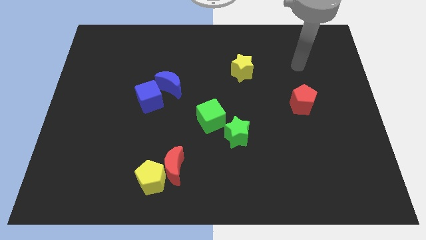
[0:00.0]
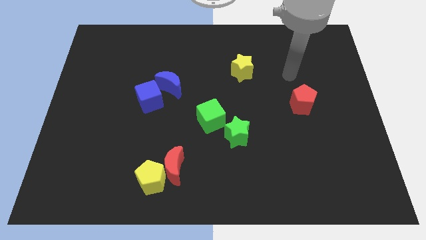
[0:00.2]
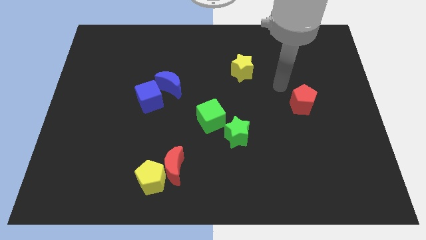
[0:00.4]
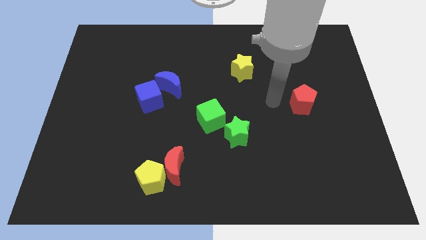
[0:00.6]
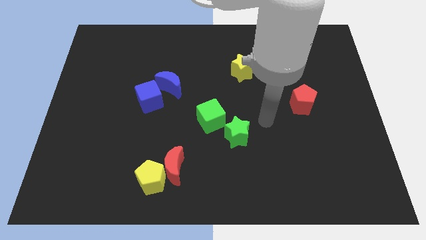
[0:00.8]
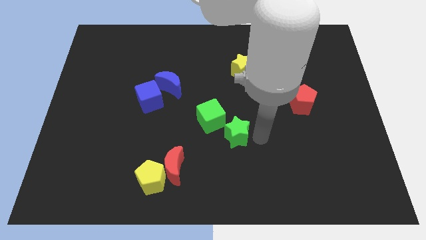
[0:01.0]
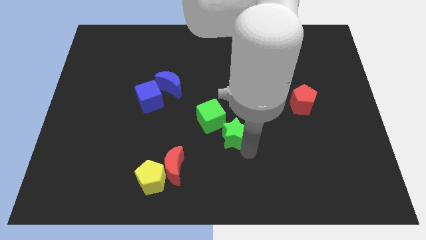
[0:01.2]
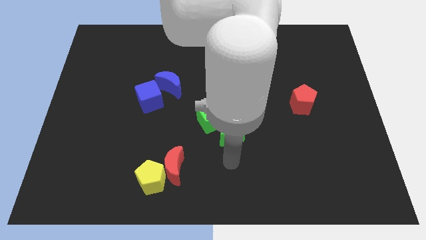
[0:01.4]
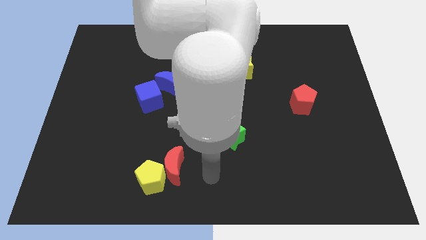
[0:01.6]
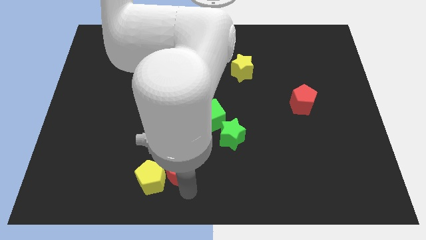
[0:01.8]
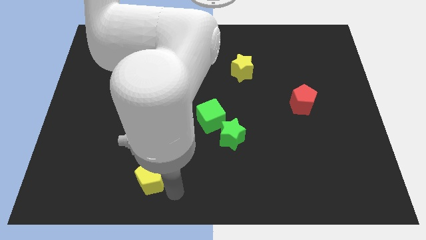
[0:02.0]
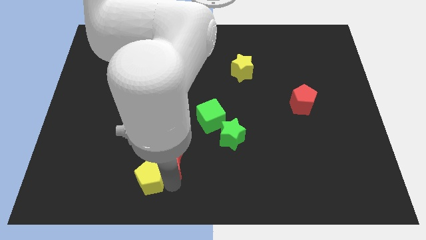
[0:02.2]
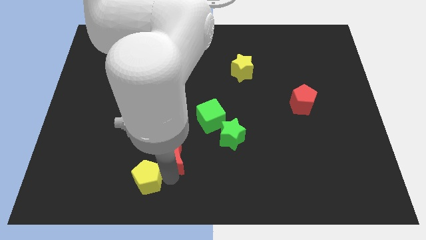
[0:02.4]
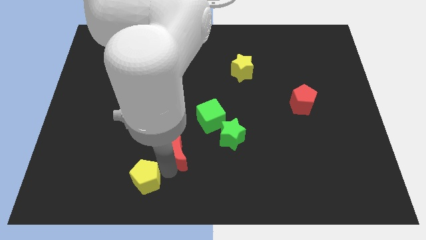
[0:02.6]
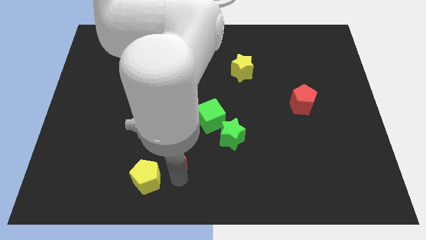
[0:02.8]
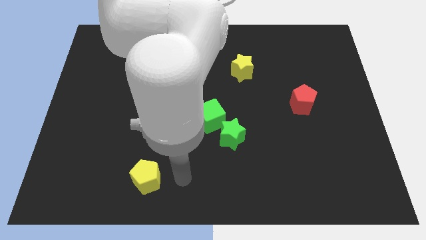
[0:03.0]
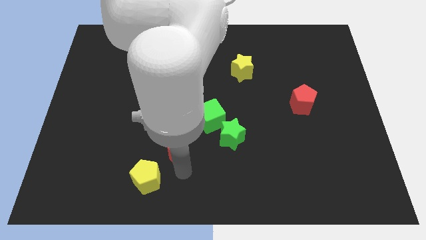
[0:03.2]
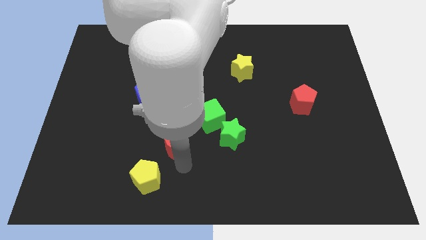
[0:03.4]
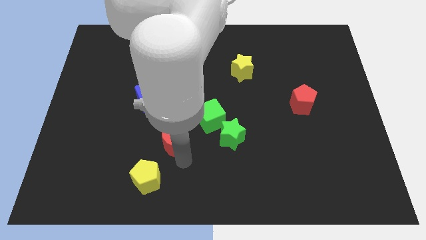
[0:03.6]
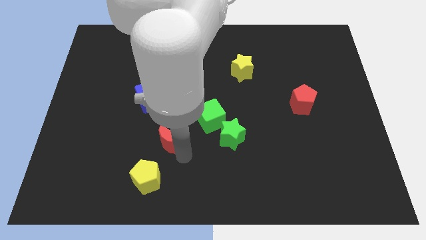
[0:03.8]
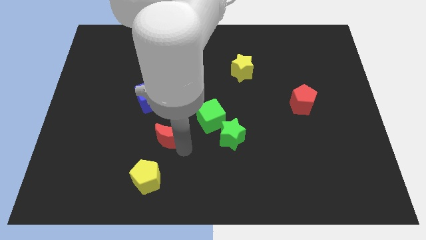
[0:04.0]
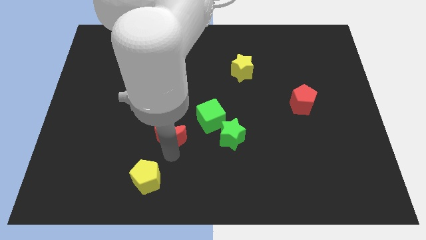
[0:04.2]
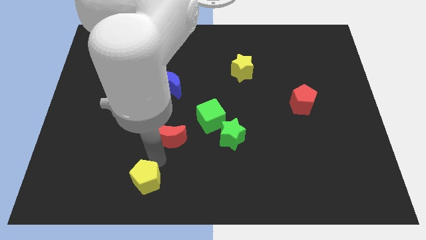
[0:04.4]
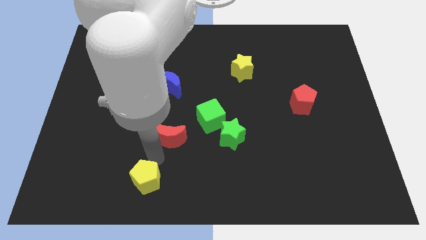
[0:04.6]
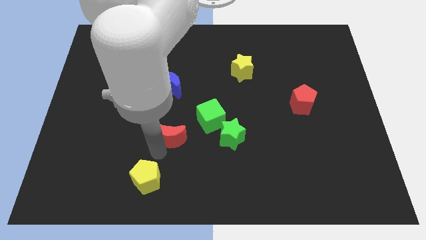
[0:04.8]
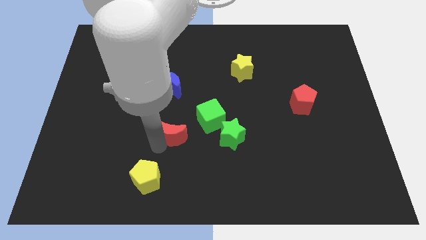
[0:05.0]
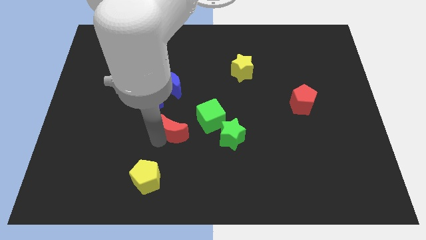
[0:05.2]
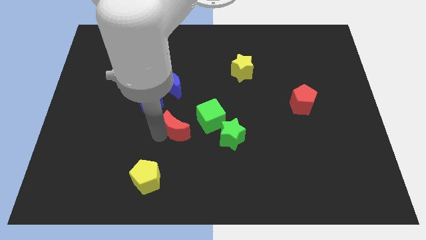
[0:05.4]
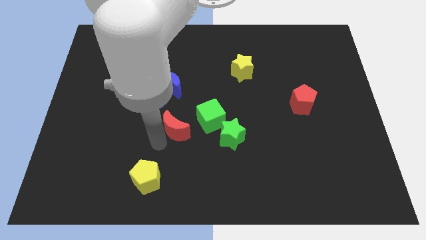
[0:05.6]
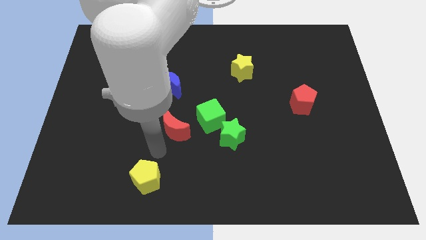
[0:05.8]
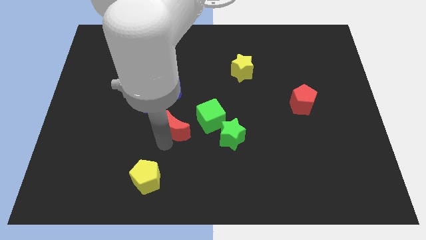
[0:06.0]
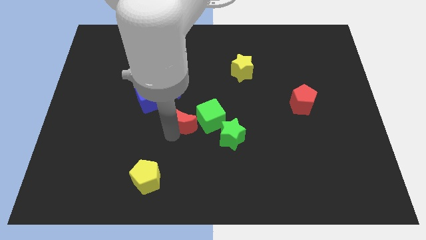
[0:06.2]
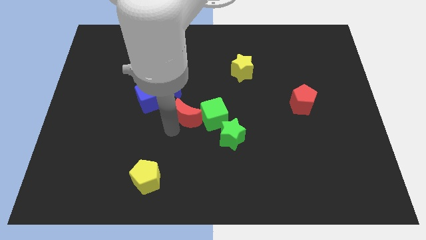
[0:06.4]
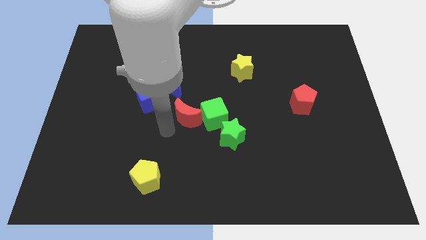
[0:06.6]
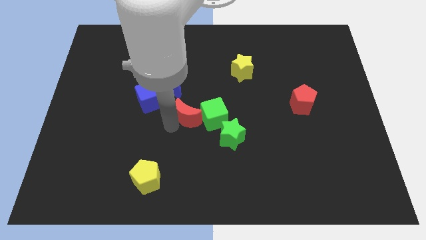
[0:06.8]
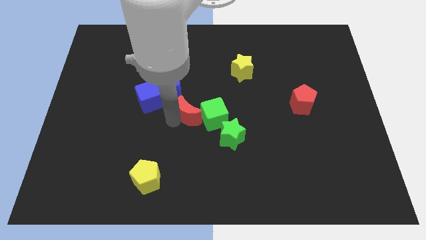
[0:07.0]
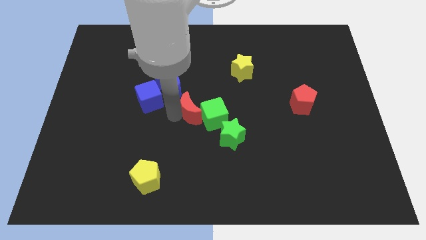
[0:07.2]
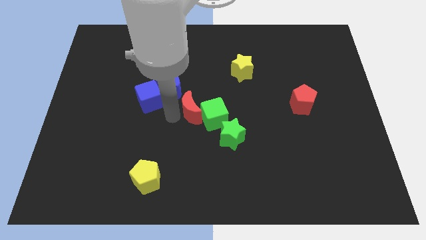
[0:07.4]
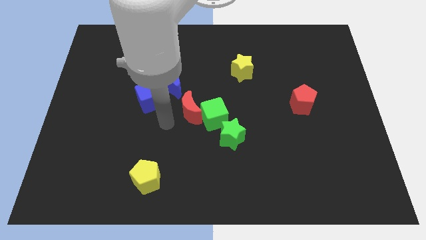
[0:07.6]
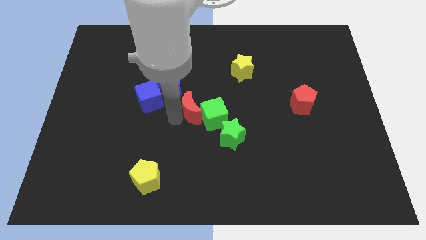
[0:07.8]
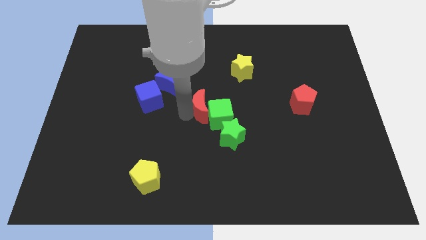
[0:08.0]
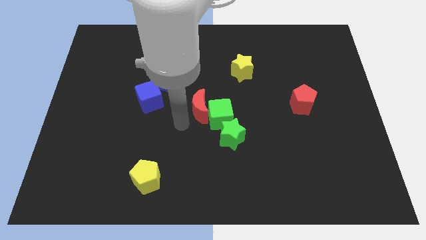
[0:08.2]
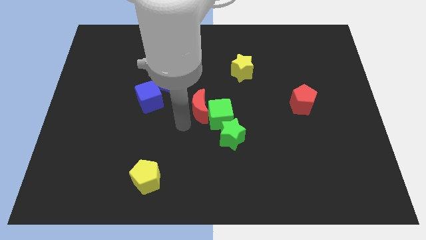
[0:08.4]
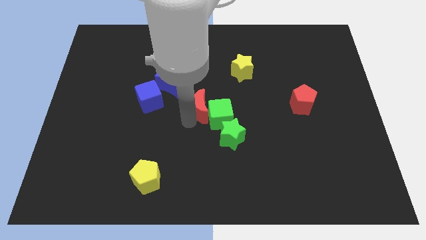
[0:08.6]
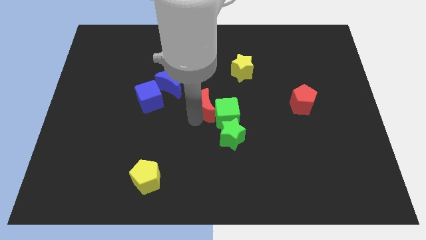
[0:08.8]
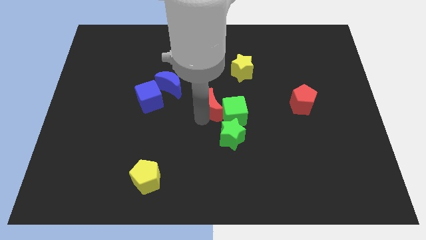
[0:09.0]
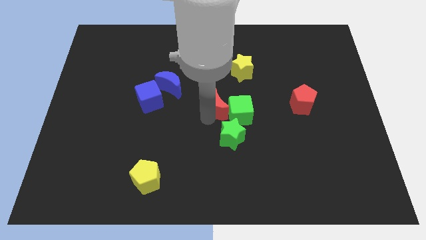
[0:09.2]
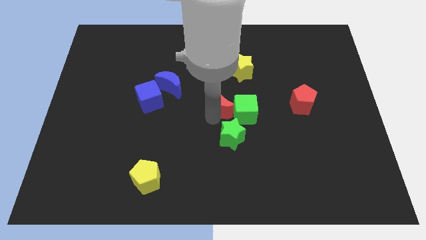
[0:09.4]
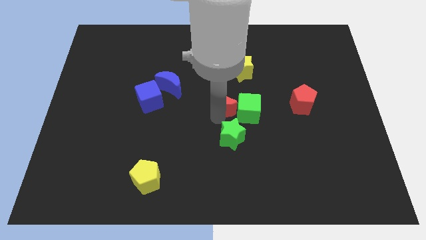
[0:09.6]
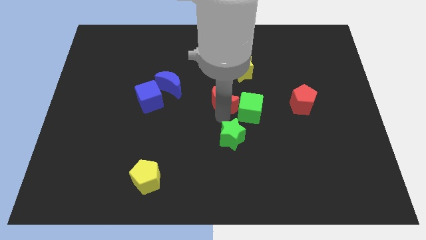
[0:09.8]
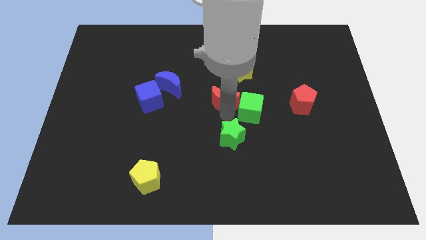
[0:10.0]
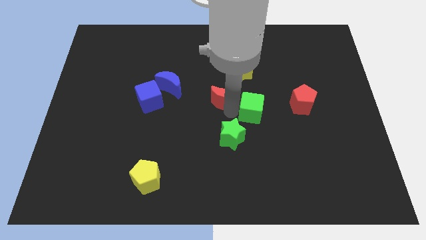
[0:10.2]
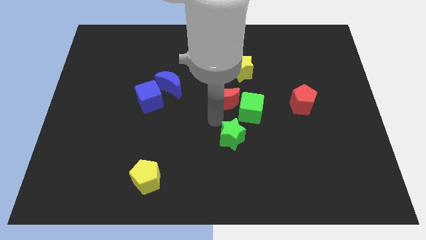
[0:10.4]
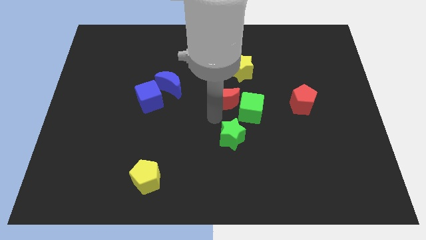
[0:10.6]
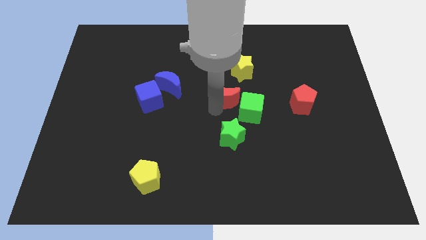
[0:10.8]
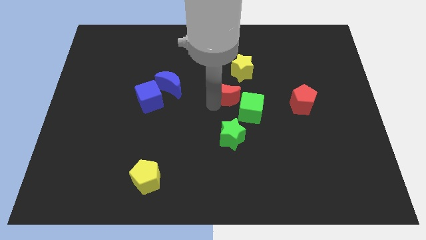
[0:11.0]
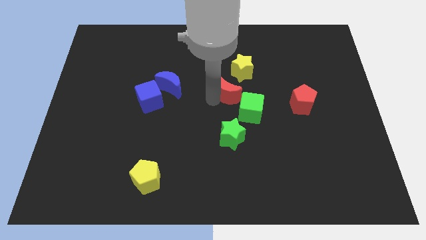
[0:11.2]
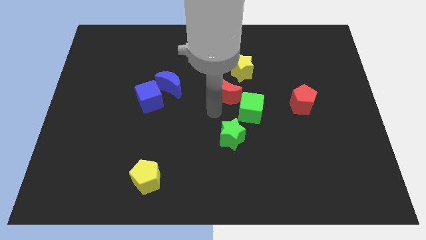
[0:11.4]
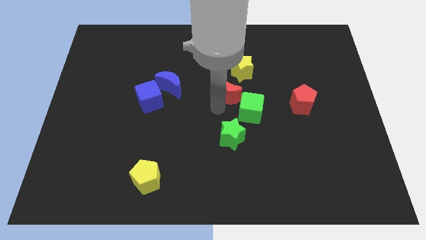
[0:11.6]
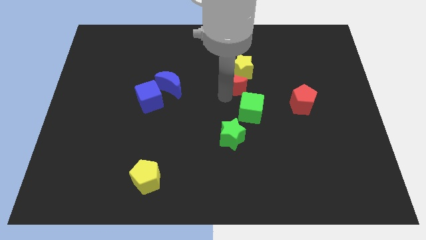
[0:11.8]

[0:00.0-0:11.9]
slide the red moon close to the yellow star

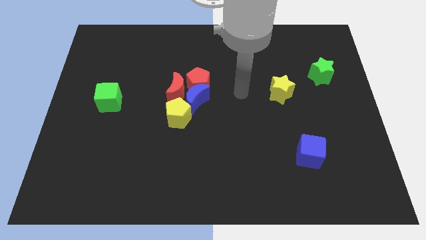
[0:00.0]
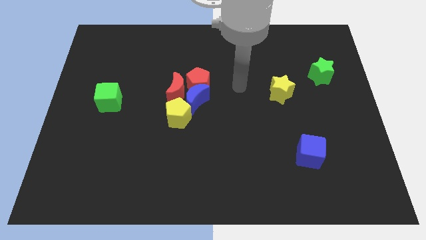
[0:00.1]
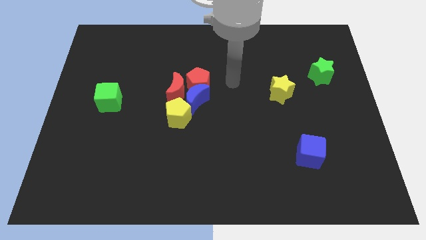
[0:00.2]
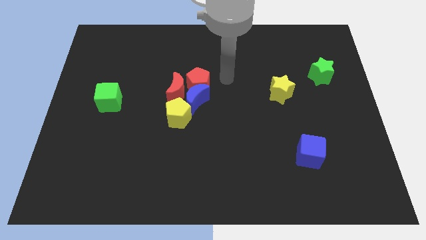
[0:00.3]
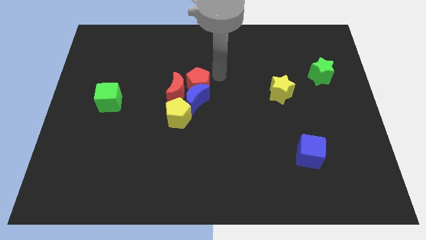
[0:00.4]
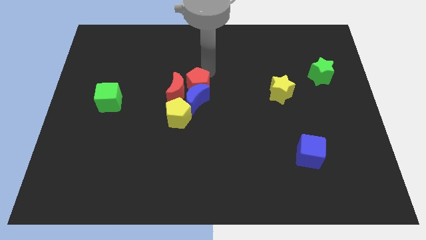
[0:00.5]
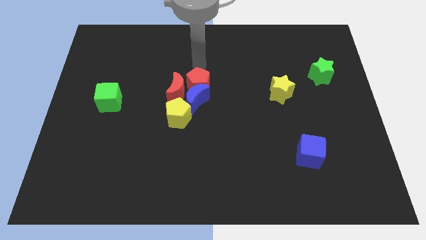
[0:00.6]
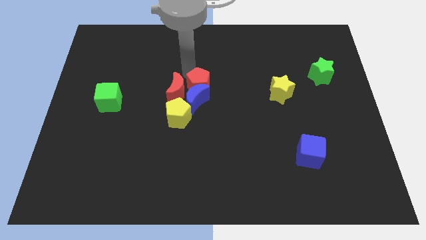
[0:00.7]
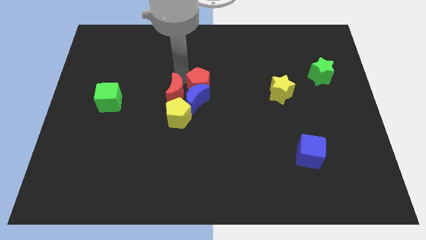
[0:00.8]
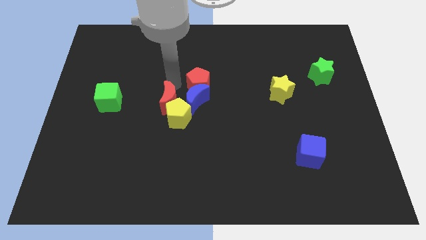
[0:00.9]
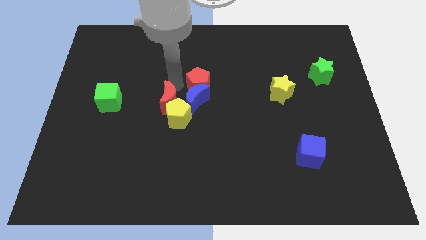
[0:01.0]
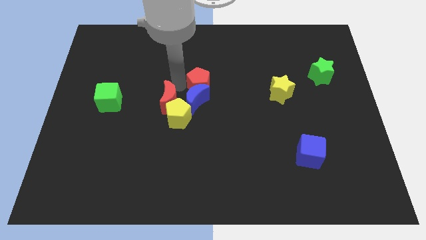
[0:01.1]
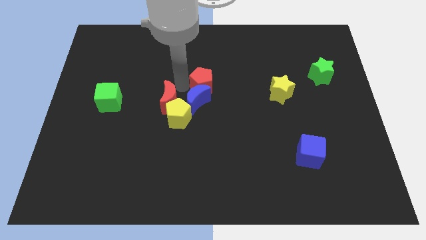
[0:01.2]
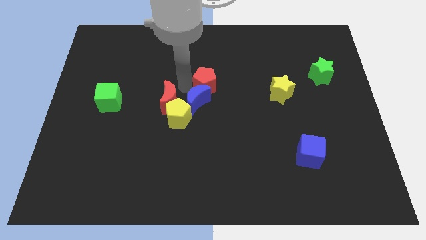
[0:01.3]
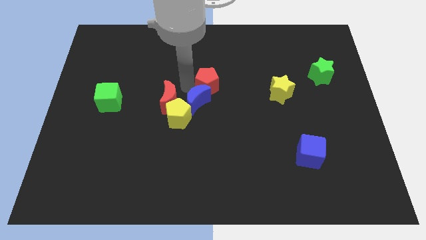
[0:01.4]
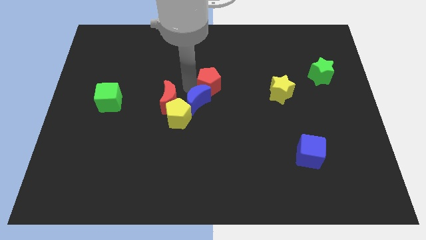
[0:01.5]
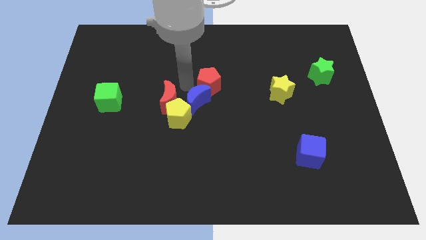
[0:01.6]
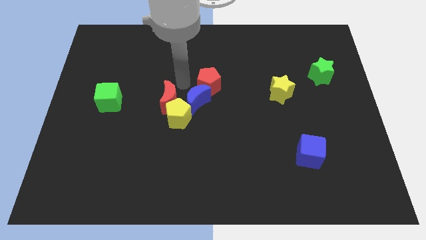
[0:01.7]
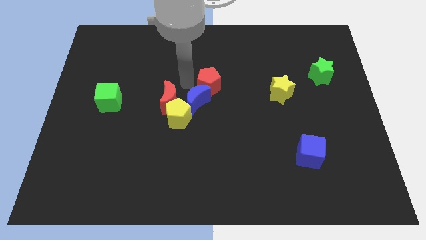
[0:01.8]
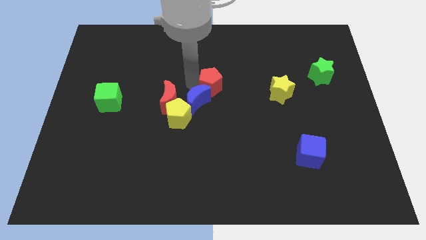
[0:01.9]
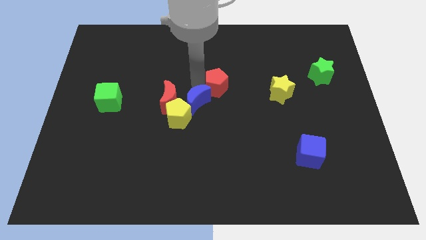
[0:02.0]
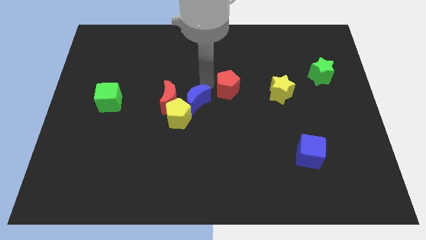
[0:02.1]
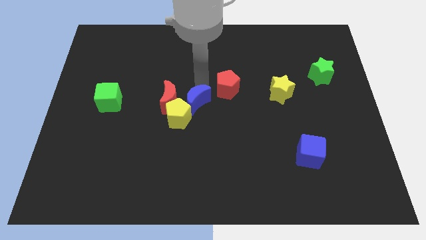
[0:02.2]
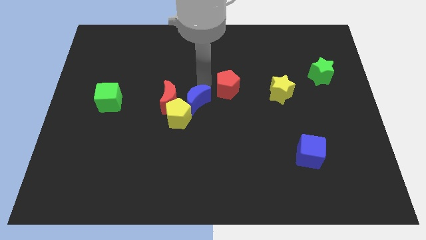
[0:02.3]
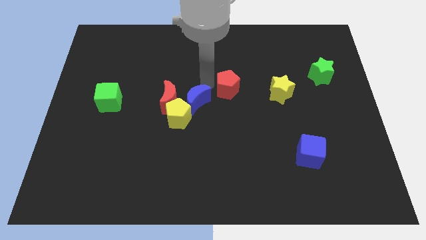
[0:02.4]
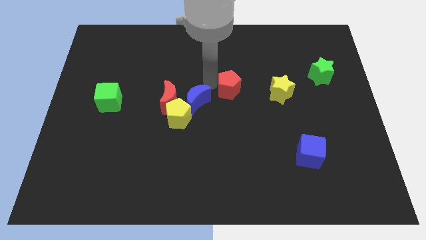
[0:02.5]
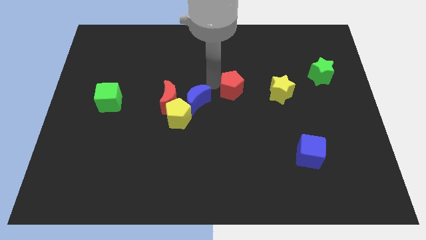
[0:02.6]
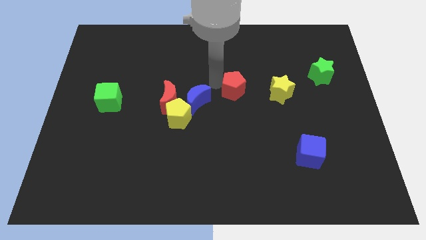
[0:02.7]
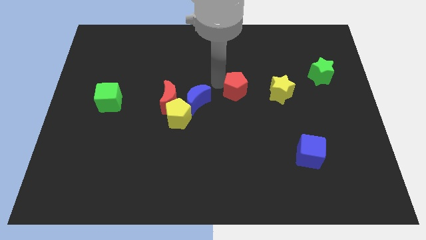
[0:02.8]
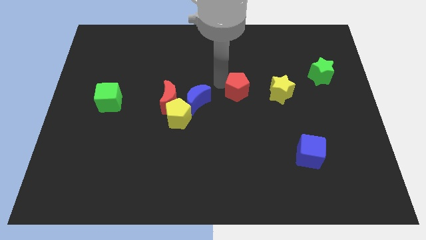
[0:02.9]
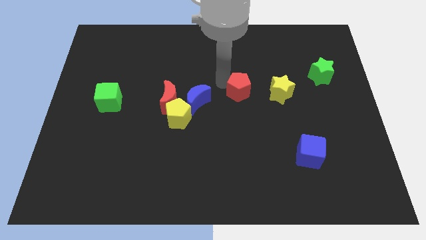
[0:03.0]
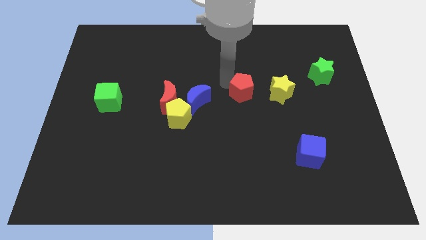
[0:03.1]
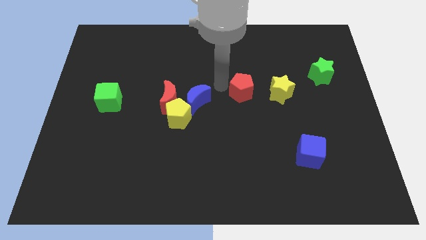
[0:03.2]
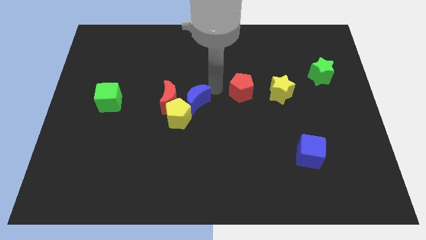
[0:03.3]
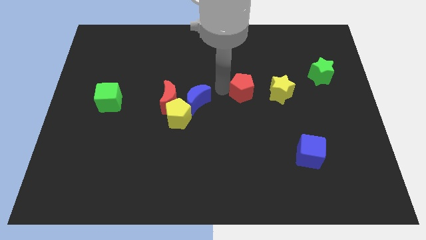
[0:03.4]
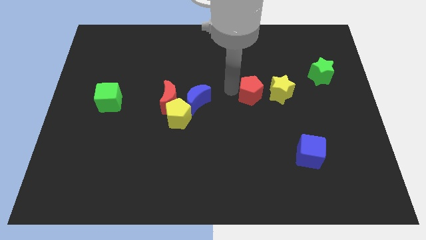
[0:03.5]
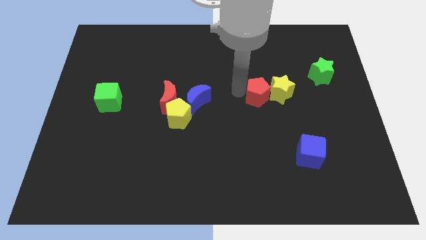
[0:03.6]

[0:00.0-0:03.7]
push the red pentagon close to the yellow star
